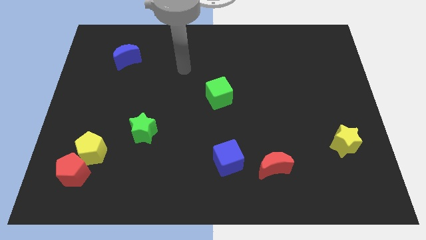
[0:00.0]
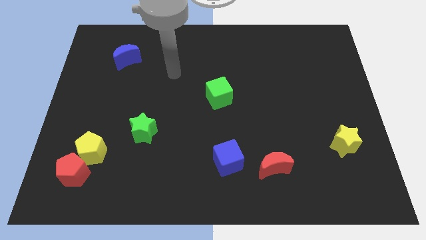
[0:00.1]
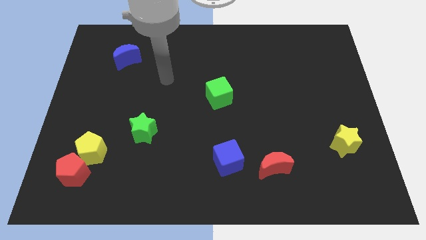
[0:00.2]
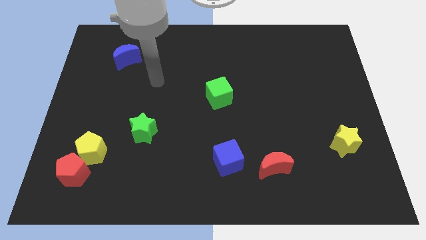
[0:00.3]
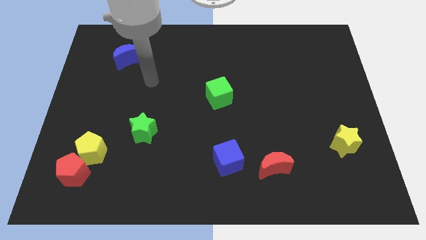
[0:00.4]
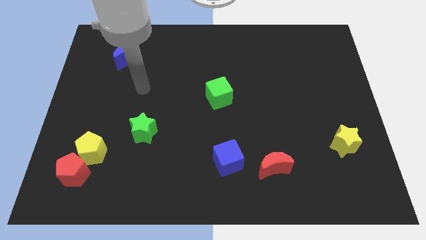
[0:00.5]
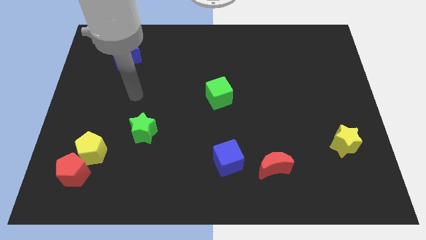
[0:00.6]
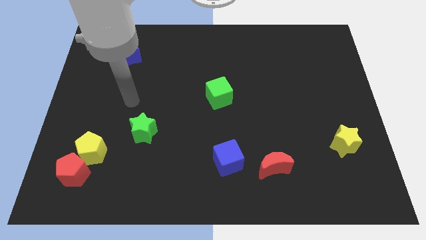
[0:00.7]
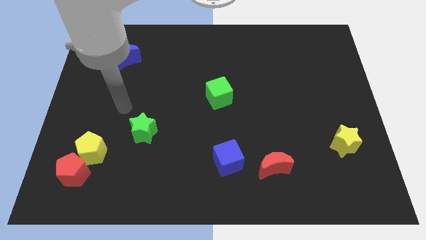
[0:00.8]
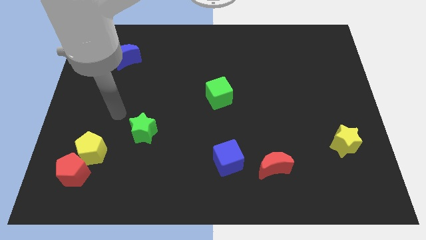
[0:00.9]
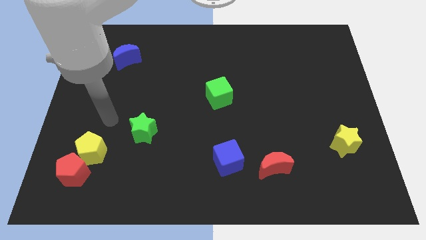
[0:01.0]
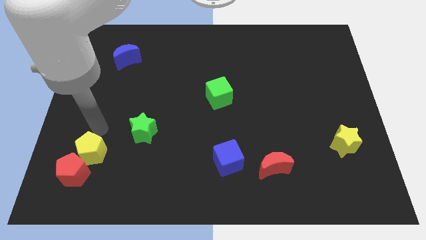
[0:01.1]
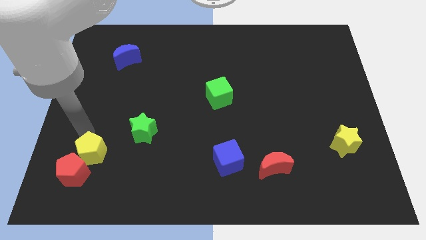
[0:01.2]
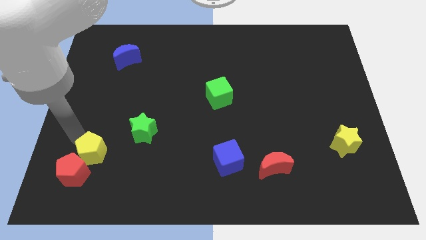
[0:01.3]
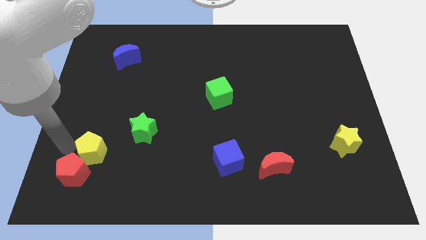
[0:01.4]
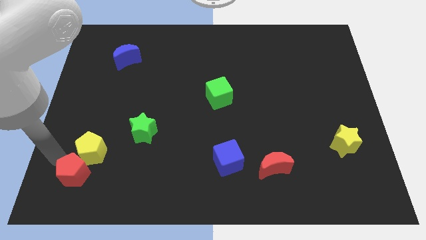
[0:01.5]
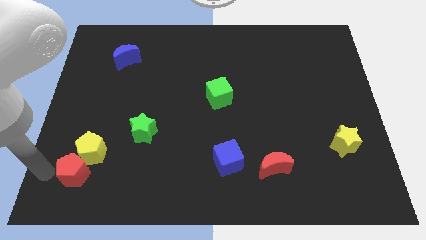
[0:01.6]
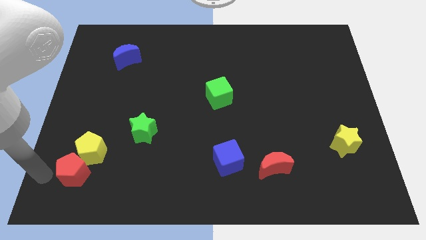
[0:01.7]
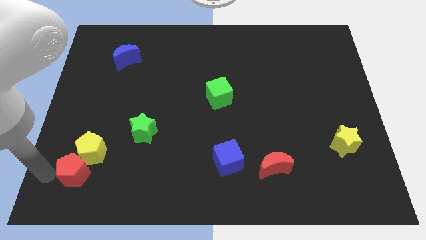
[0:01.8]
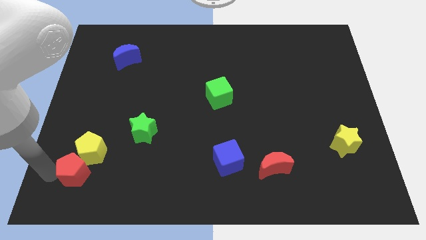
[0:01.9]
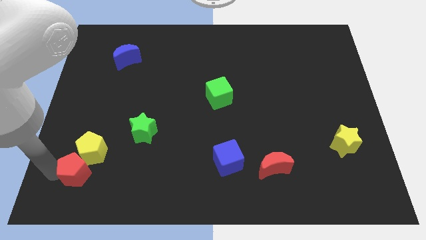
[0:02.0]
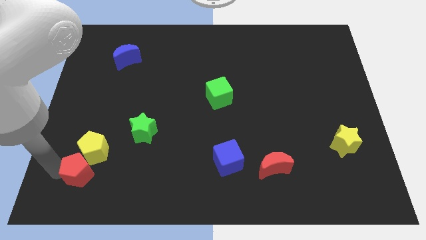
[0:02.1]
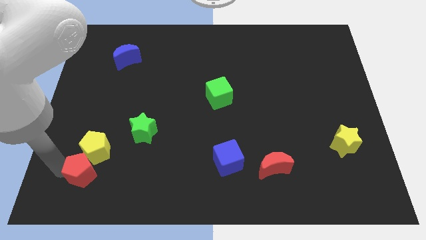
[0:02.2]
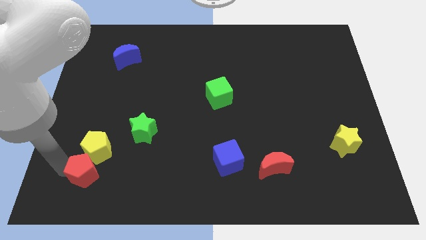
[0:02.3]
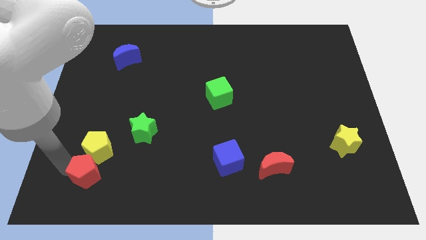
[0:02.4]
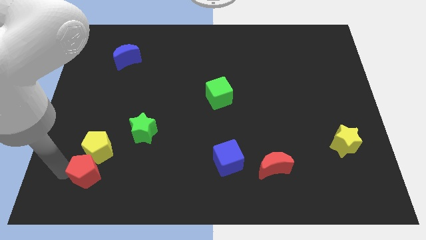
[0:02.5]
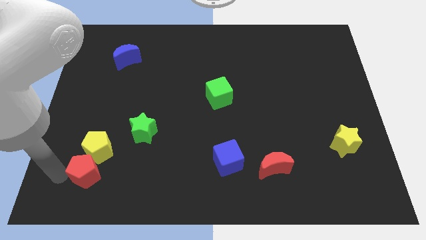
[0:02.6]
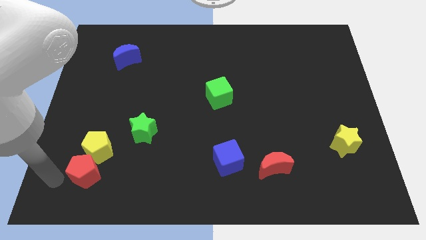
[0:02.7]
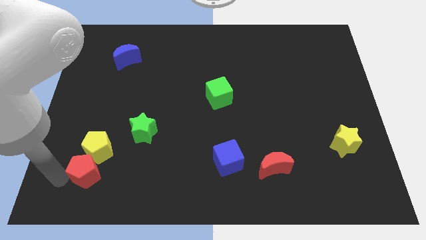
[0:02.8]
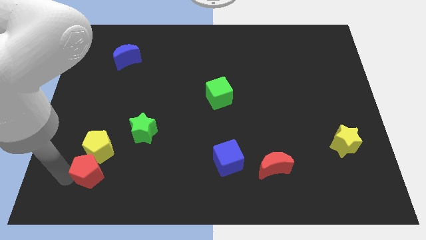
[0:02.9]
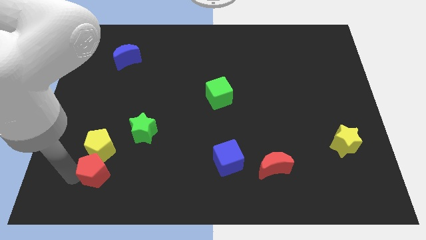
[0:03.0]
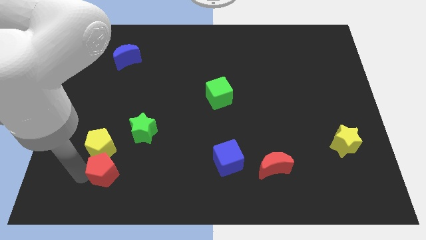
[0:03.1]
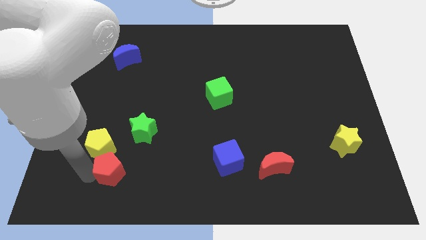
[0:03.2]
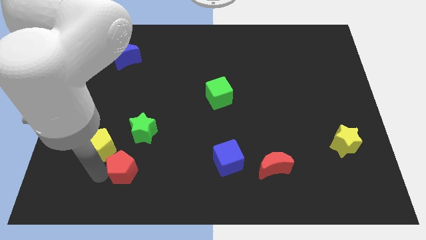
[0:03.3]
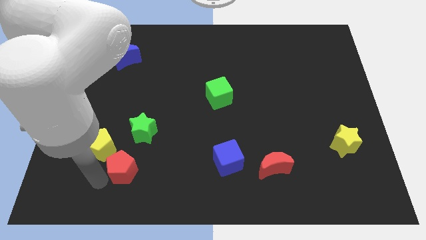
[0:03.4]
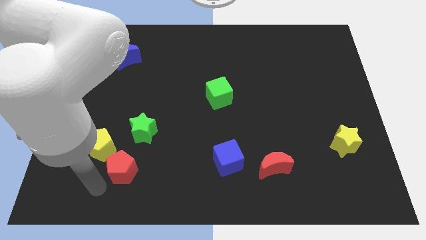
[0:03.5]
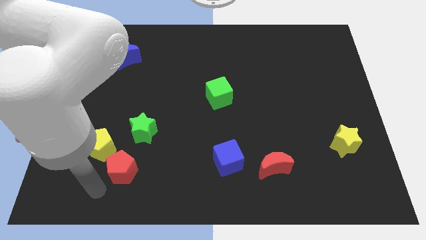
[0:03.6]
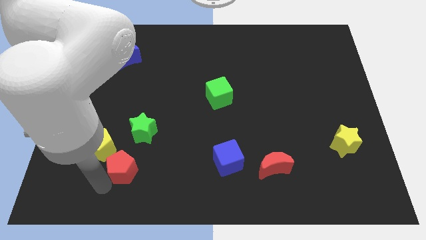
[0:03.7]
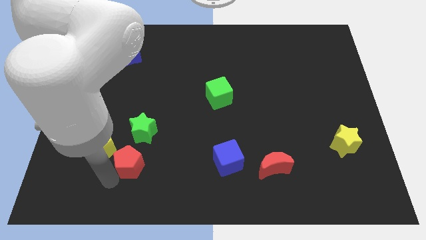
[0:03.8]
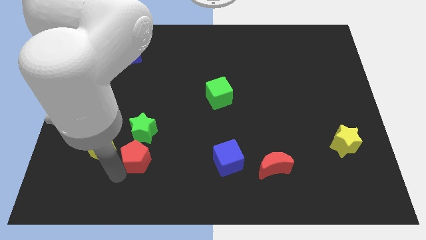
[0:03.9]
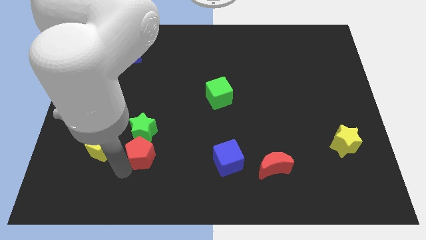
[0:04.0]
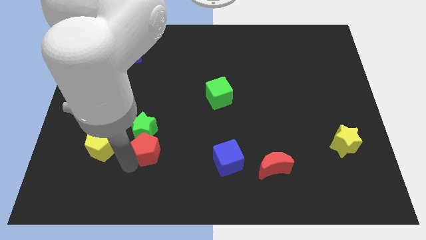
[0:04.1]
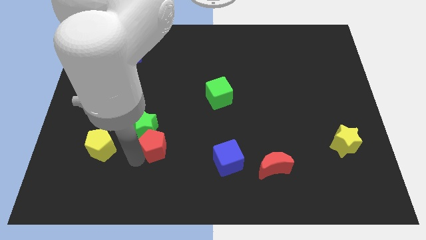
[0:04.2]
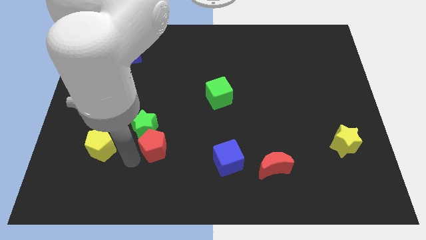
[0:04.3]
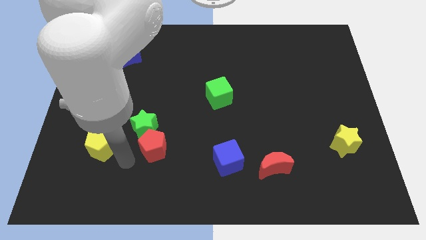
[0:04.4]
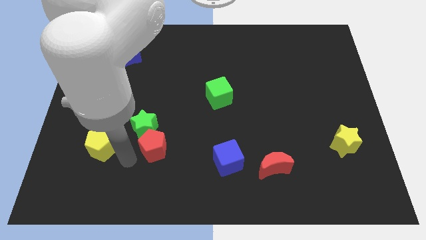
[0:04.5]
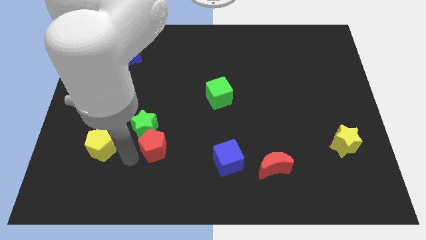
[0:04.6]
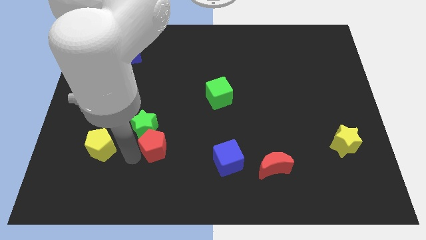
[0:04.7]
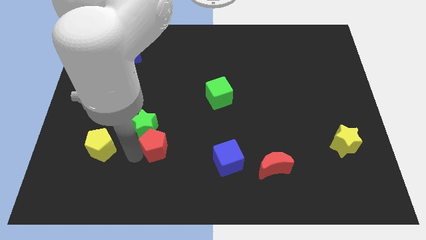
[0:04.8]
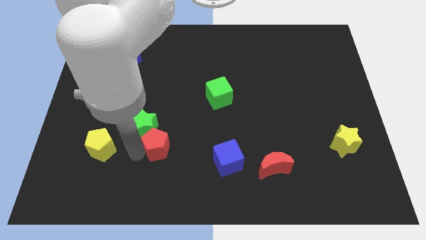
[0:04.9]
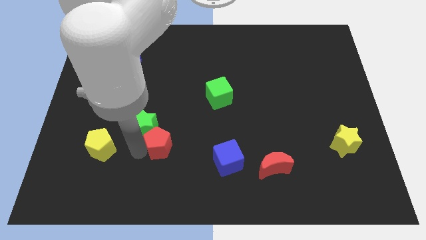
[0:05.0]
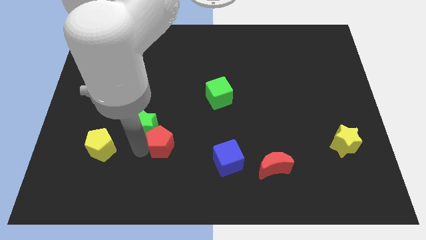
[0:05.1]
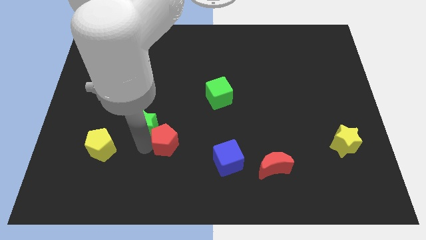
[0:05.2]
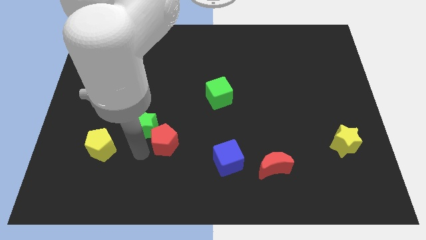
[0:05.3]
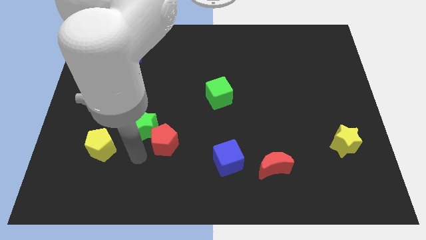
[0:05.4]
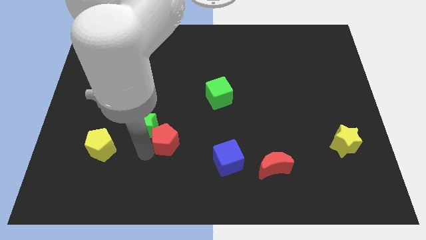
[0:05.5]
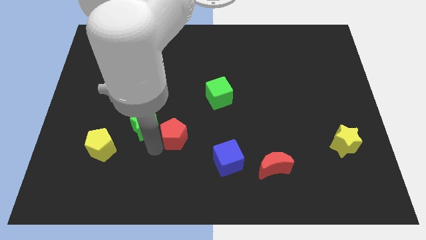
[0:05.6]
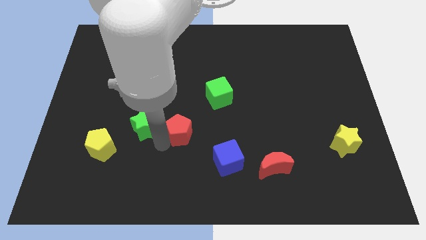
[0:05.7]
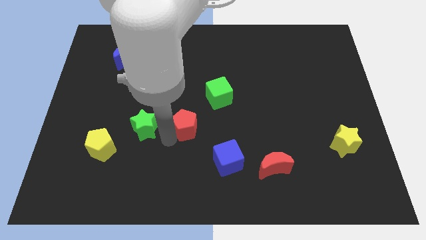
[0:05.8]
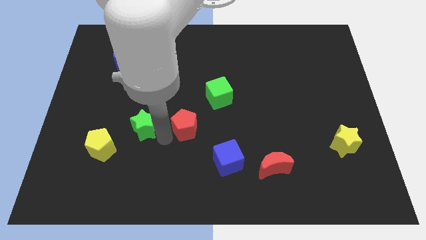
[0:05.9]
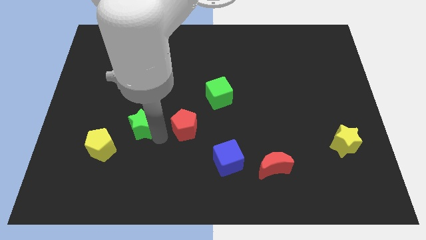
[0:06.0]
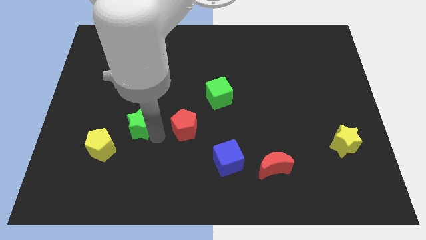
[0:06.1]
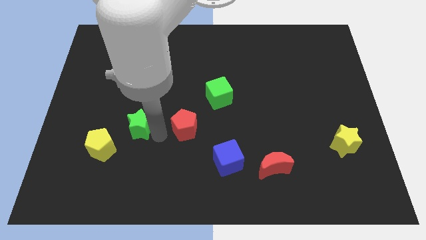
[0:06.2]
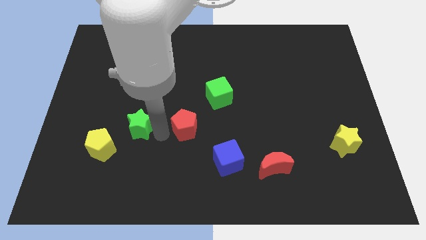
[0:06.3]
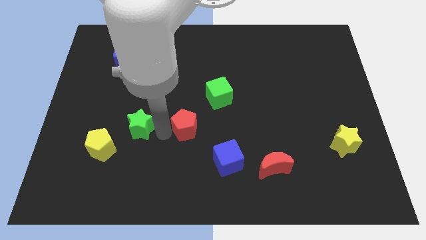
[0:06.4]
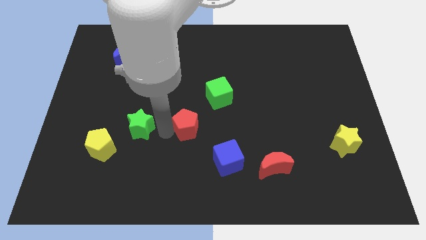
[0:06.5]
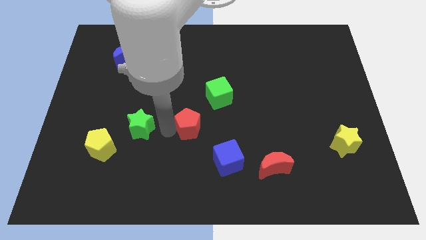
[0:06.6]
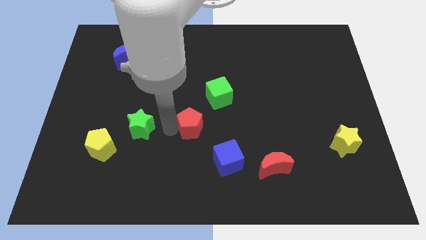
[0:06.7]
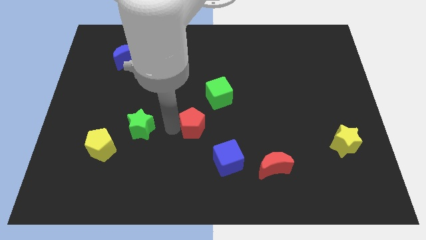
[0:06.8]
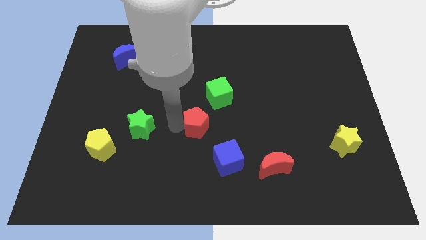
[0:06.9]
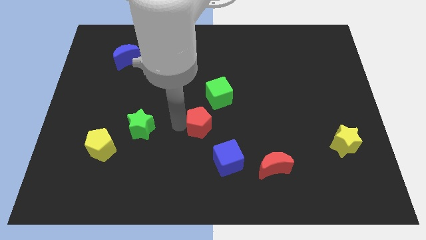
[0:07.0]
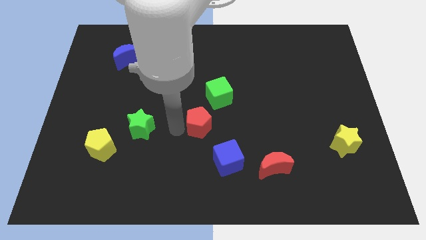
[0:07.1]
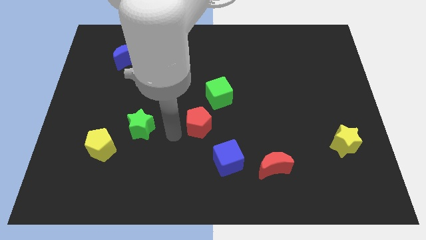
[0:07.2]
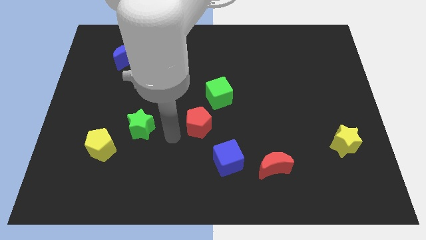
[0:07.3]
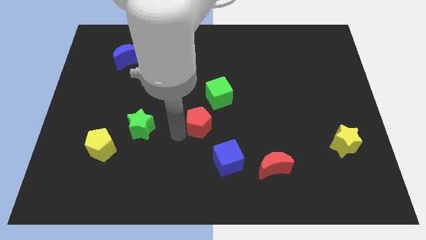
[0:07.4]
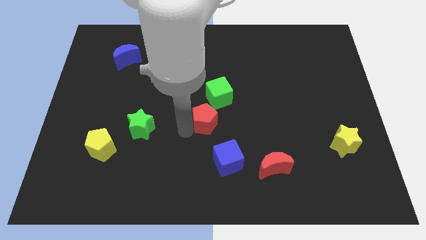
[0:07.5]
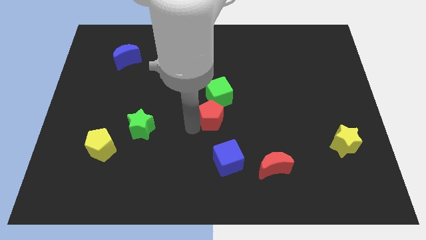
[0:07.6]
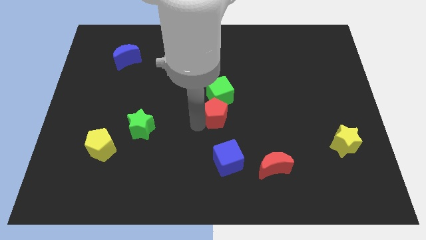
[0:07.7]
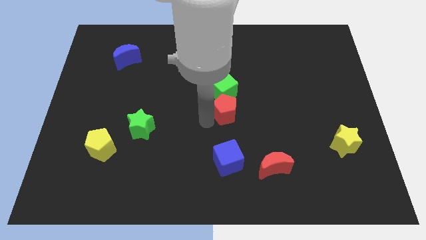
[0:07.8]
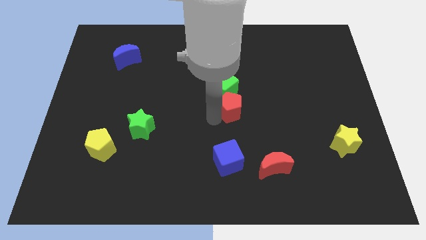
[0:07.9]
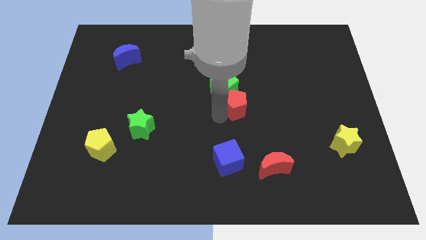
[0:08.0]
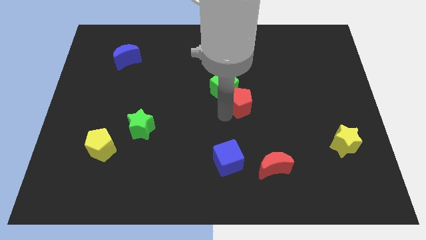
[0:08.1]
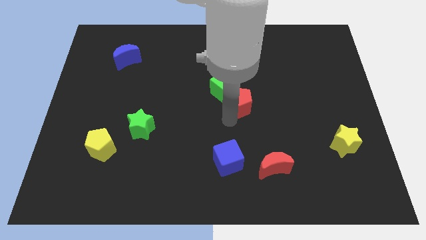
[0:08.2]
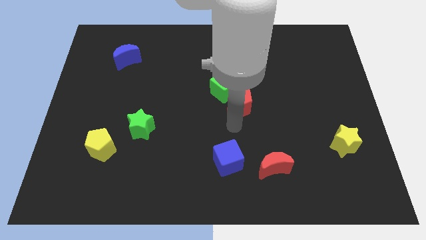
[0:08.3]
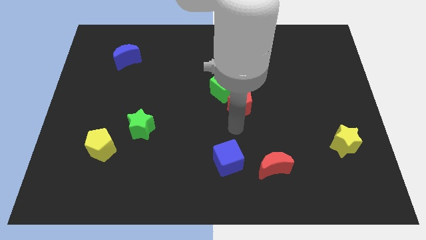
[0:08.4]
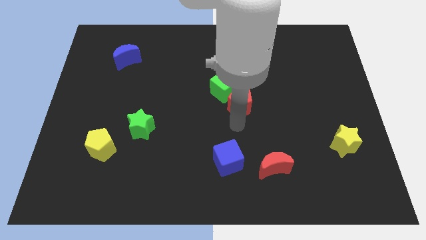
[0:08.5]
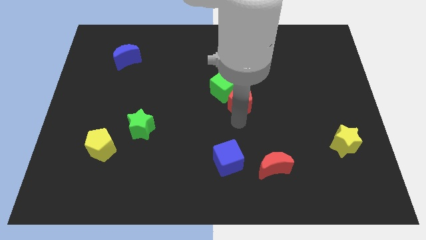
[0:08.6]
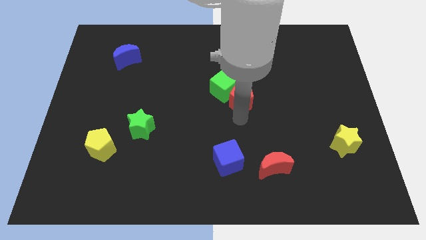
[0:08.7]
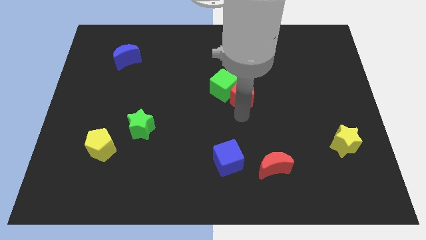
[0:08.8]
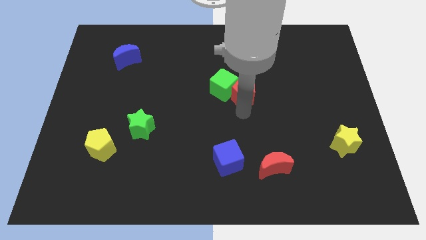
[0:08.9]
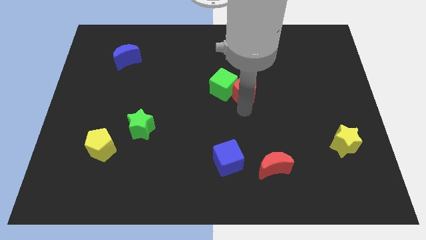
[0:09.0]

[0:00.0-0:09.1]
slide the red pentagon to the top right side of the green cube
